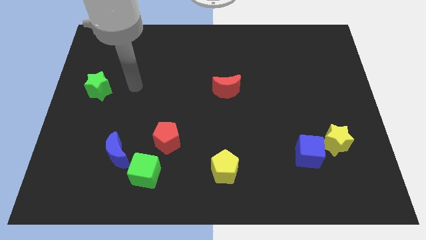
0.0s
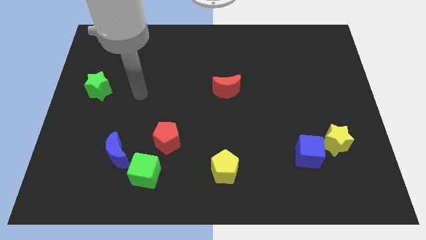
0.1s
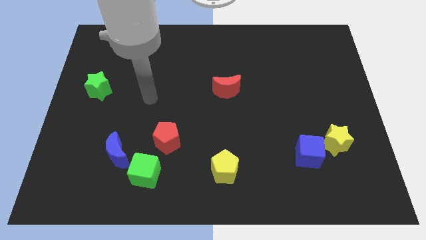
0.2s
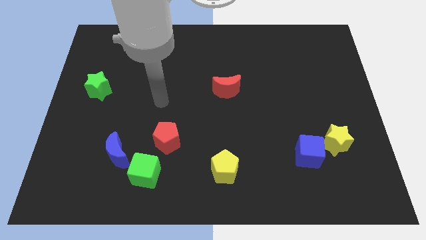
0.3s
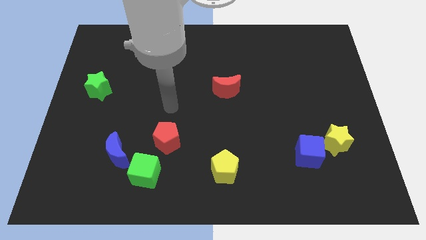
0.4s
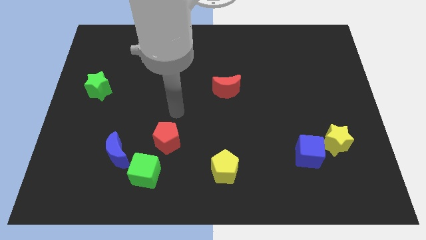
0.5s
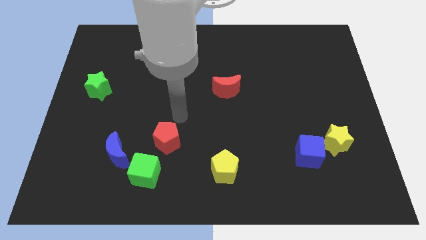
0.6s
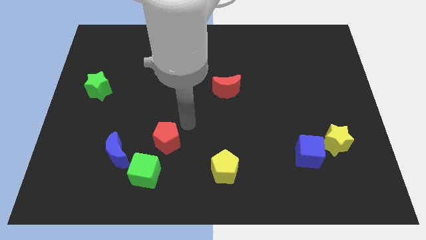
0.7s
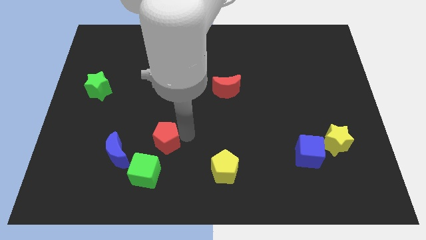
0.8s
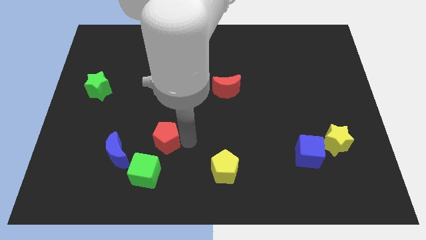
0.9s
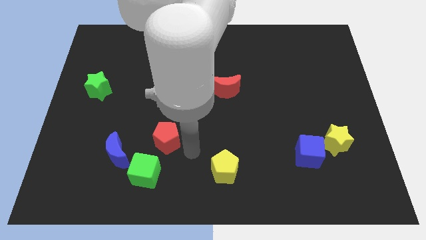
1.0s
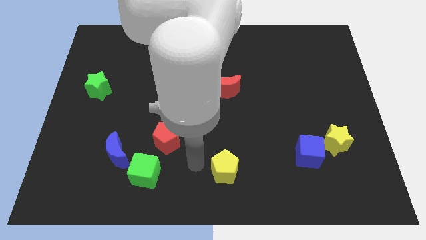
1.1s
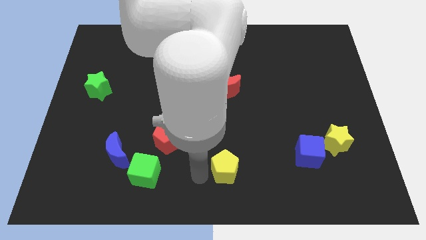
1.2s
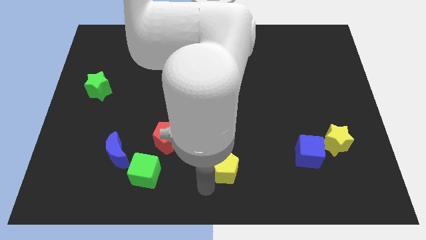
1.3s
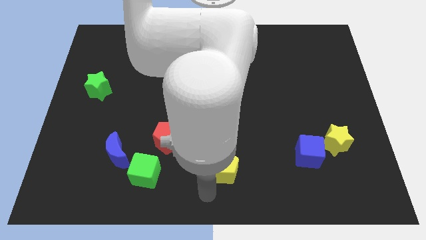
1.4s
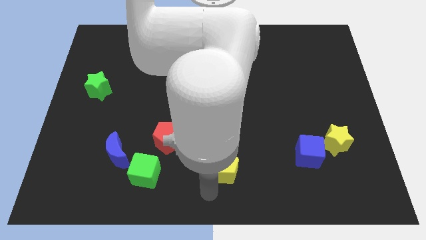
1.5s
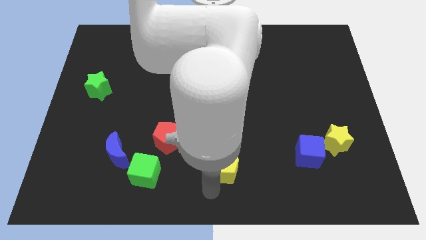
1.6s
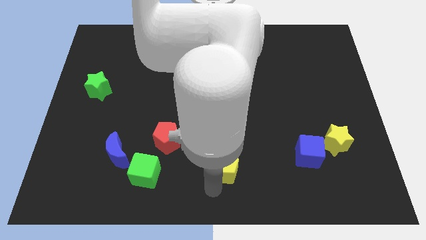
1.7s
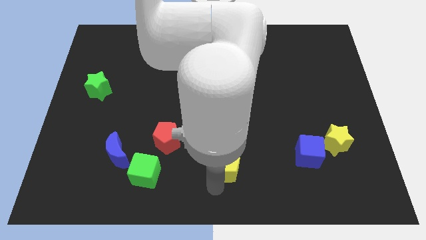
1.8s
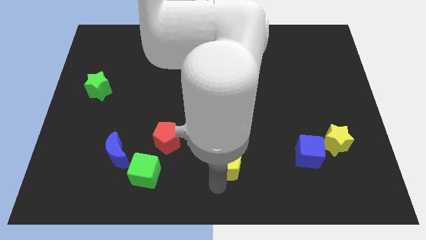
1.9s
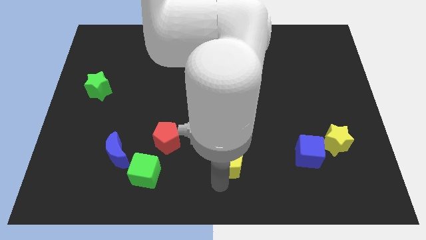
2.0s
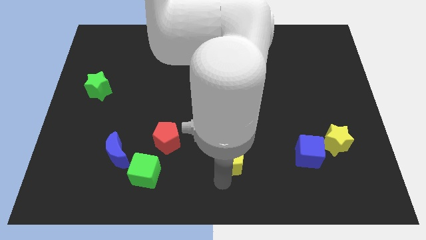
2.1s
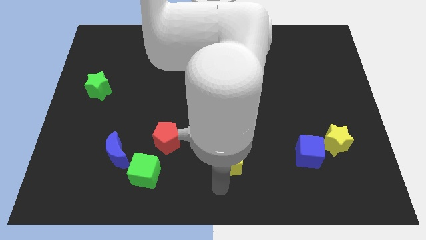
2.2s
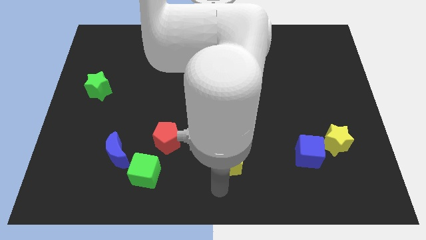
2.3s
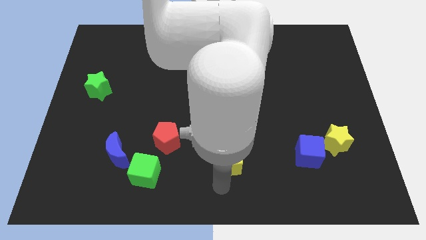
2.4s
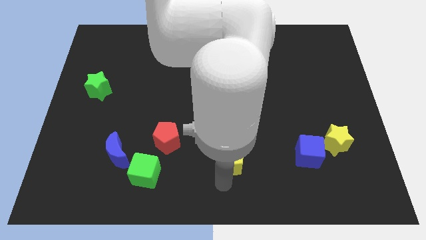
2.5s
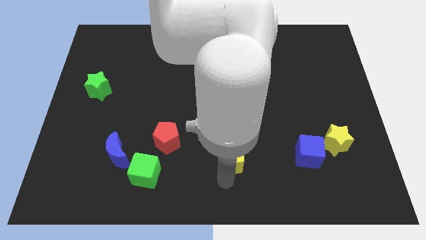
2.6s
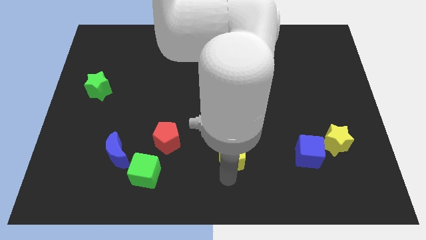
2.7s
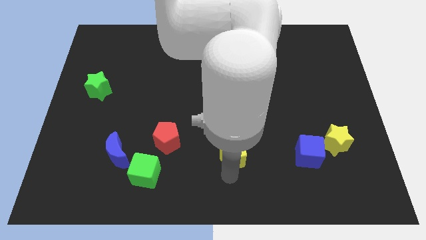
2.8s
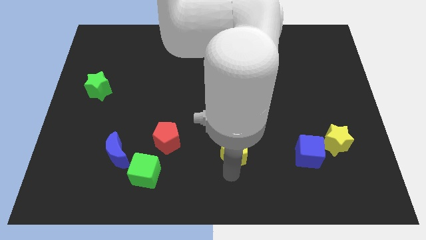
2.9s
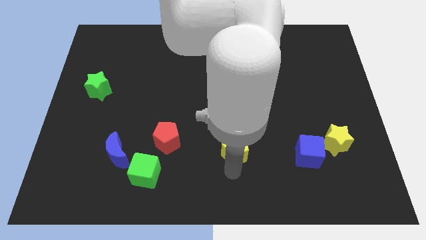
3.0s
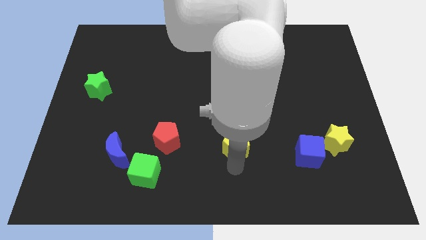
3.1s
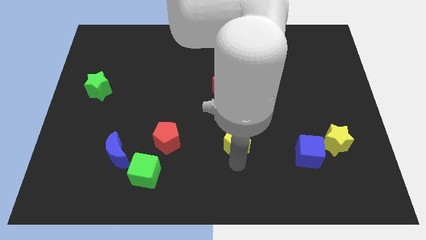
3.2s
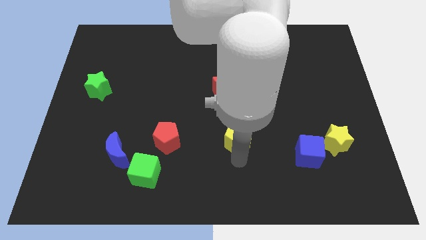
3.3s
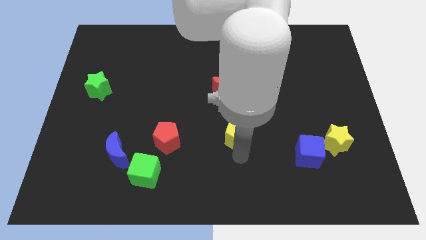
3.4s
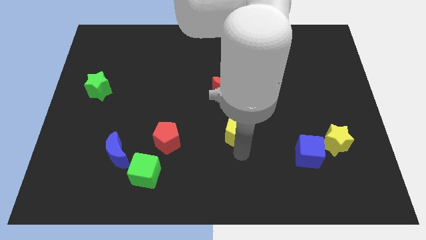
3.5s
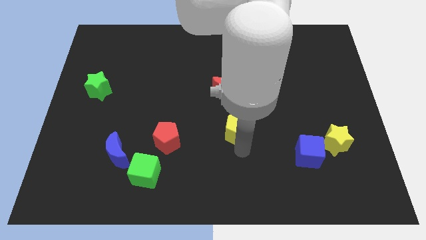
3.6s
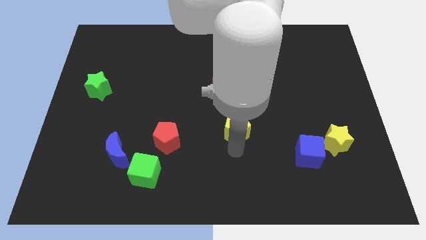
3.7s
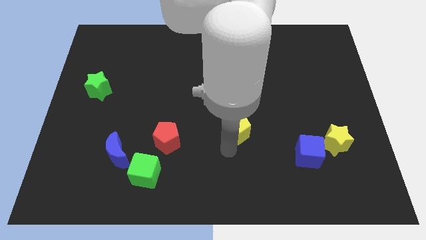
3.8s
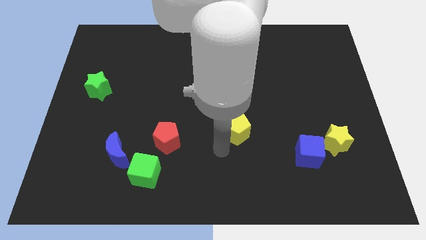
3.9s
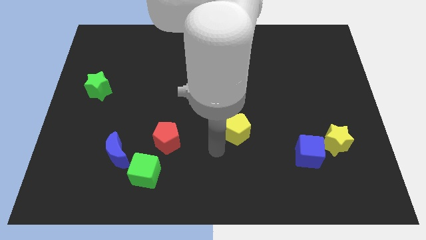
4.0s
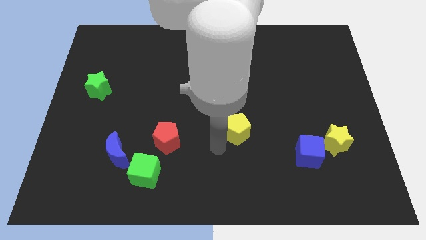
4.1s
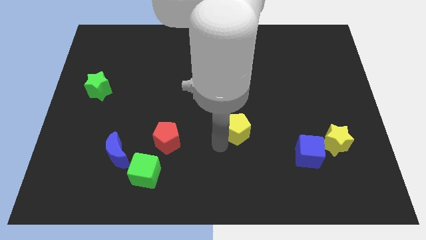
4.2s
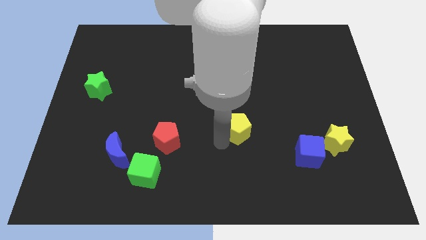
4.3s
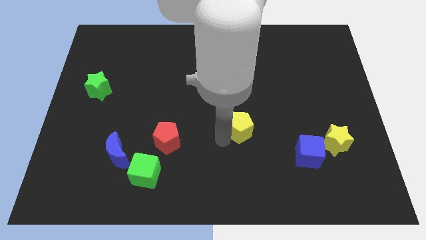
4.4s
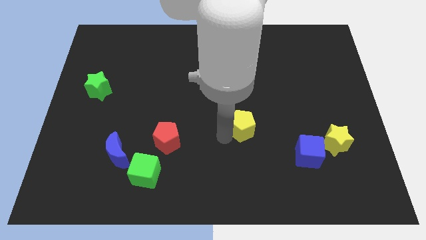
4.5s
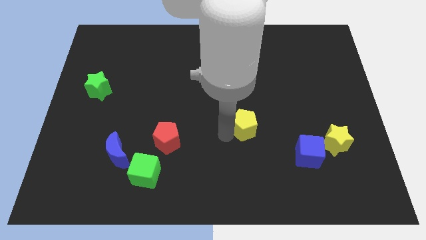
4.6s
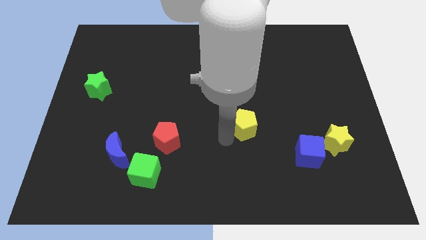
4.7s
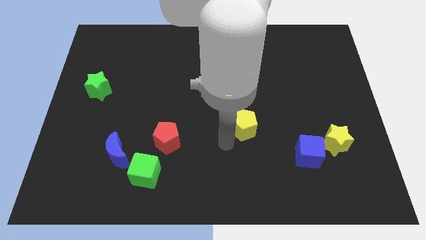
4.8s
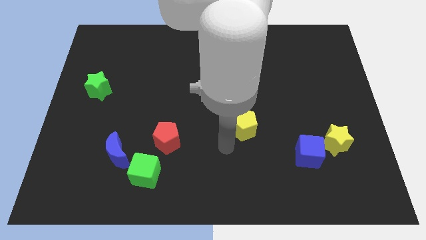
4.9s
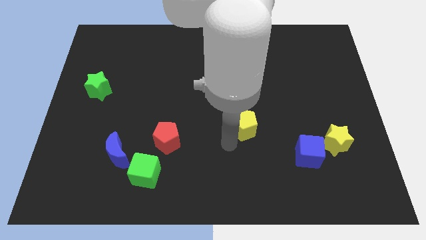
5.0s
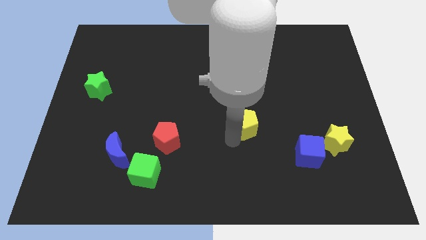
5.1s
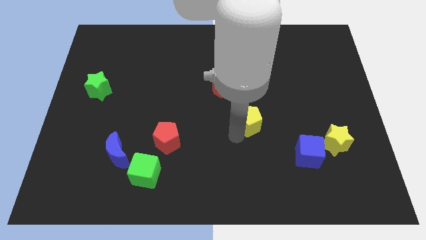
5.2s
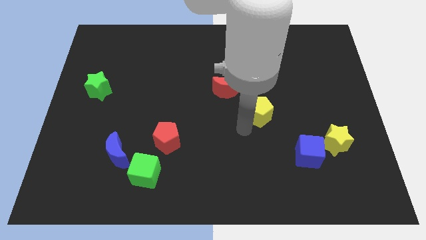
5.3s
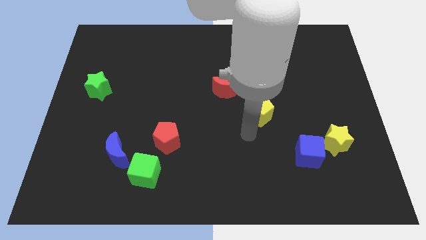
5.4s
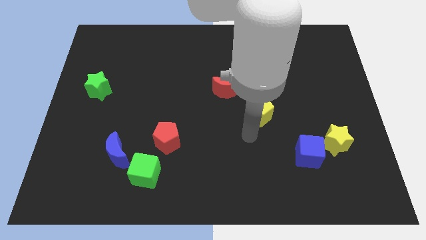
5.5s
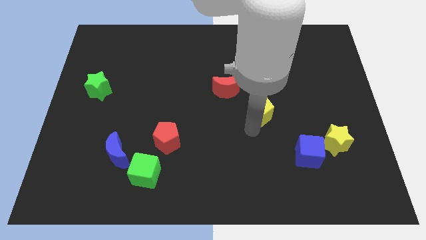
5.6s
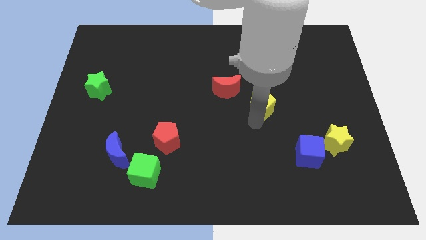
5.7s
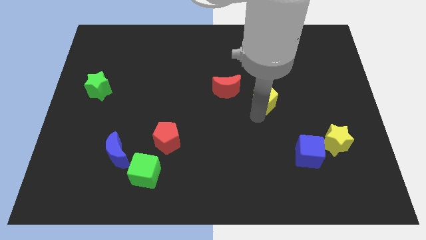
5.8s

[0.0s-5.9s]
put the yellow pentagon just right of the red moon

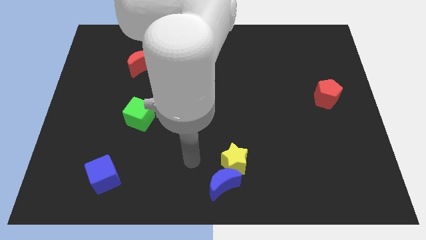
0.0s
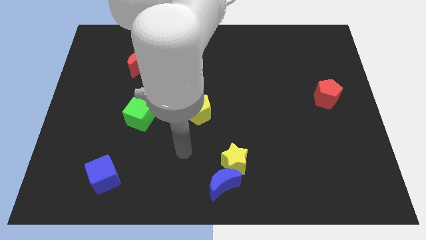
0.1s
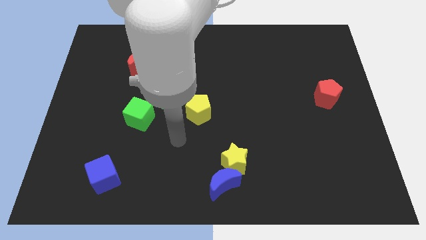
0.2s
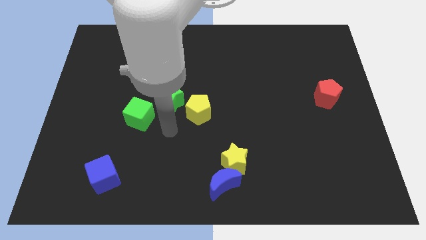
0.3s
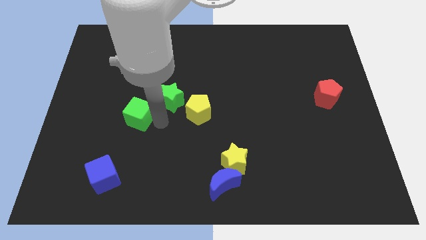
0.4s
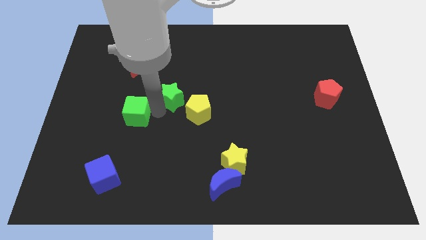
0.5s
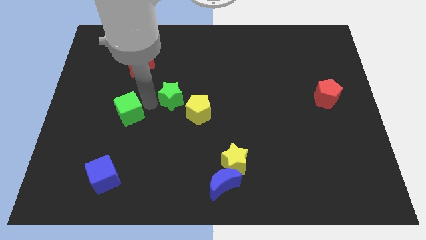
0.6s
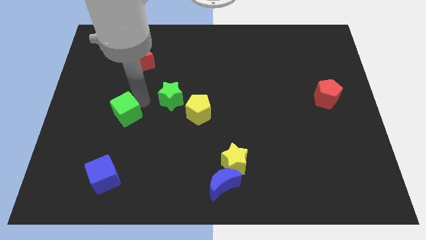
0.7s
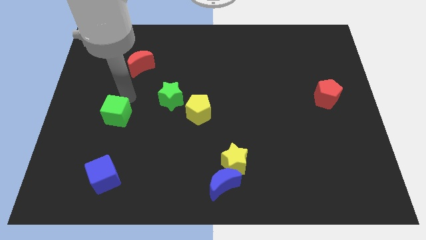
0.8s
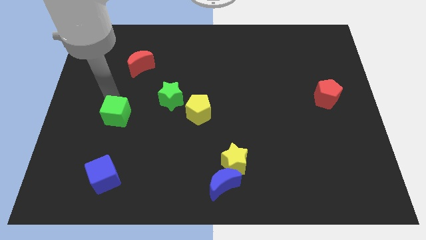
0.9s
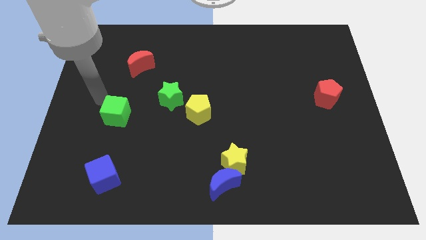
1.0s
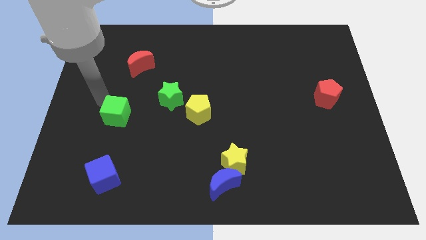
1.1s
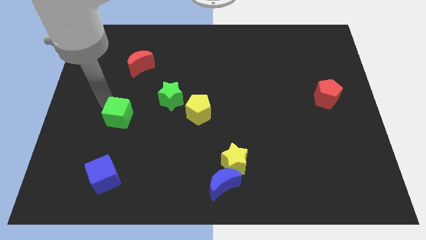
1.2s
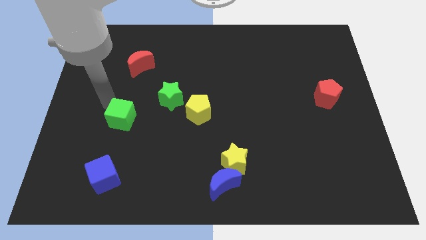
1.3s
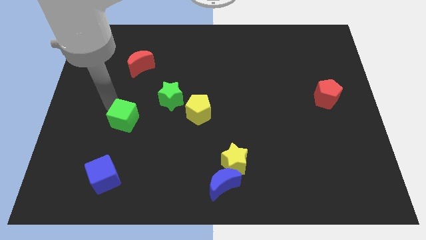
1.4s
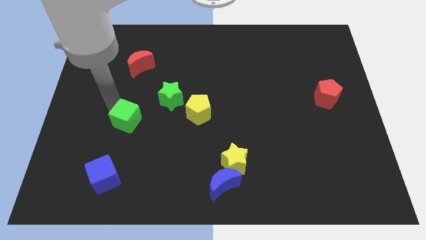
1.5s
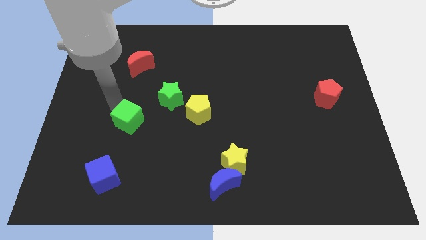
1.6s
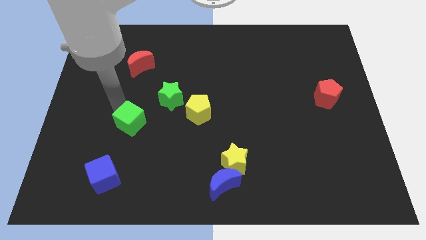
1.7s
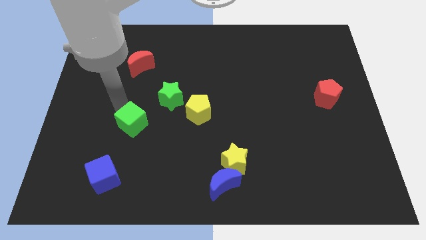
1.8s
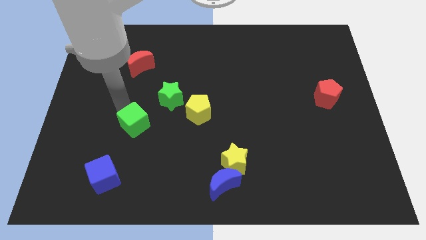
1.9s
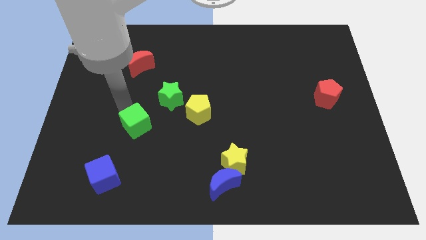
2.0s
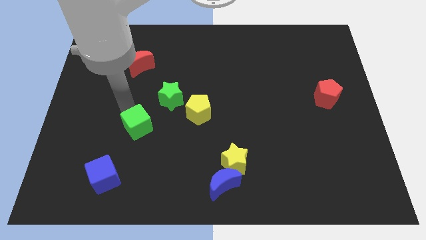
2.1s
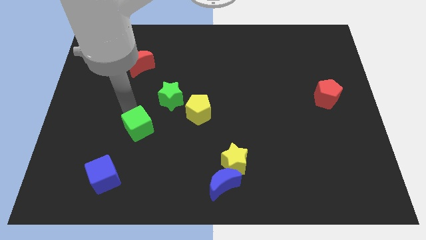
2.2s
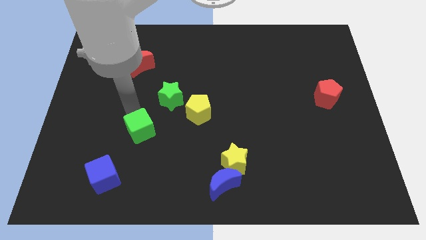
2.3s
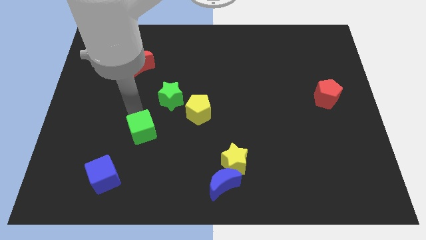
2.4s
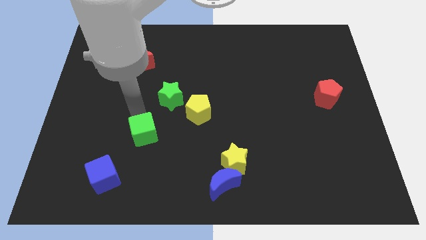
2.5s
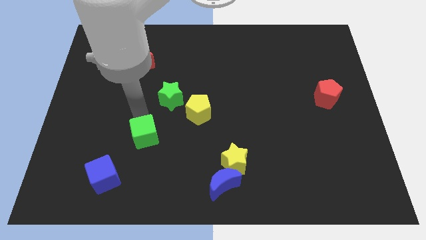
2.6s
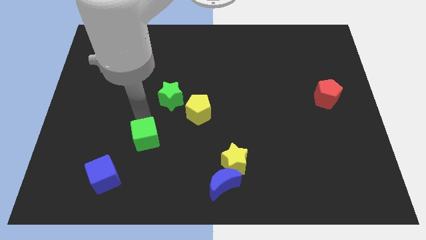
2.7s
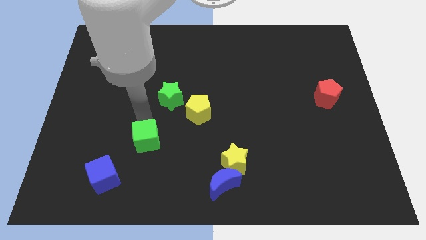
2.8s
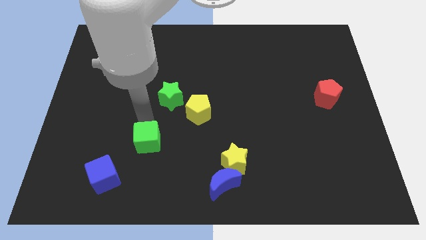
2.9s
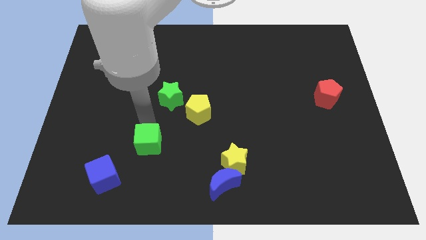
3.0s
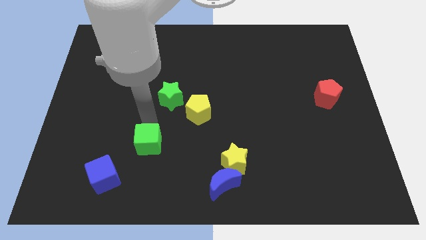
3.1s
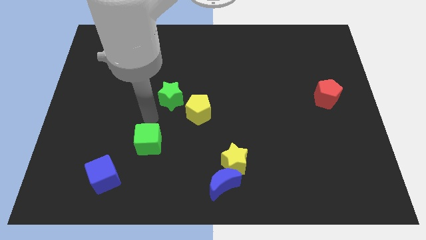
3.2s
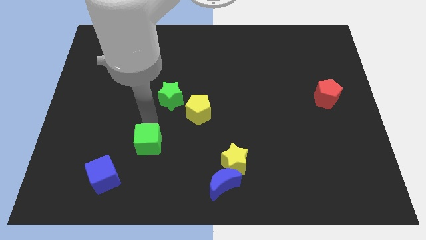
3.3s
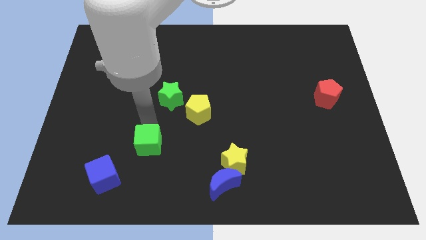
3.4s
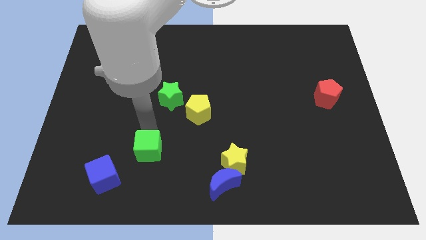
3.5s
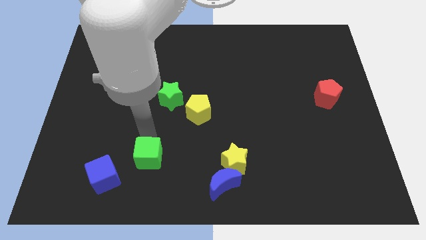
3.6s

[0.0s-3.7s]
slide the green cube right of the blue cube
